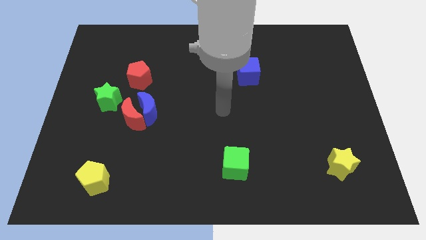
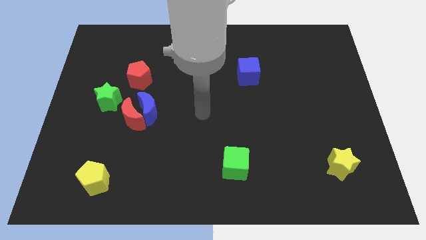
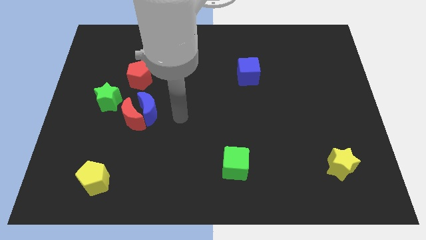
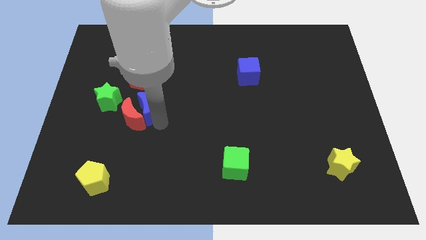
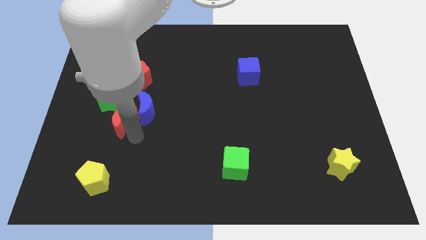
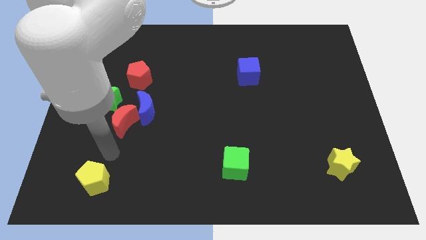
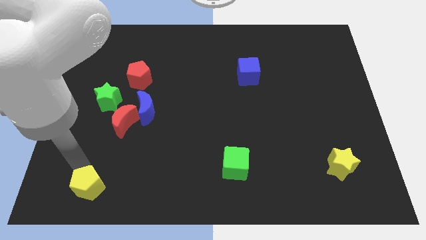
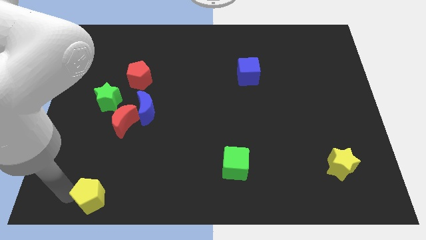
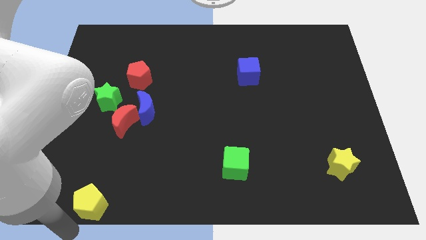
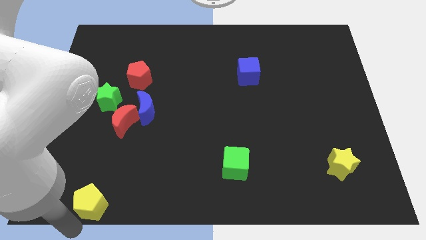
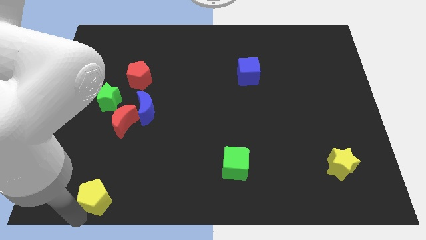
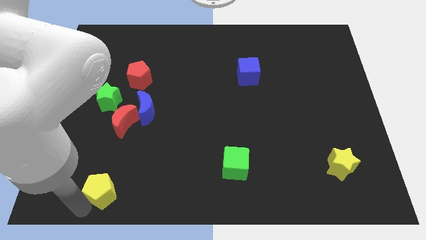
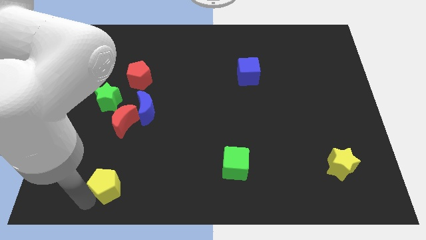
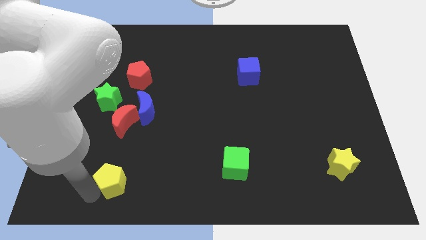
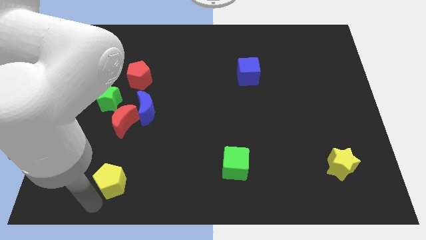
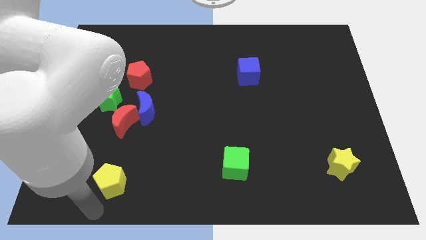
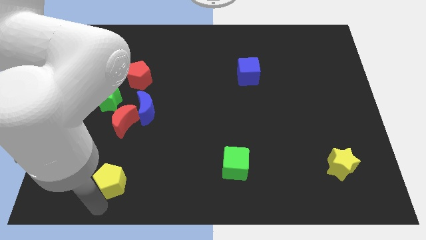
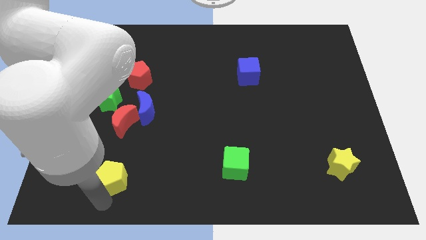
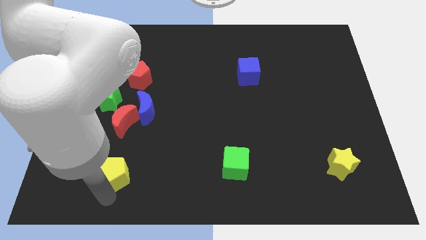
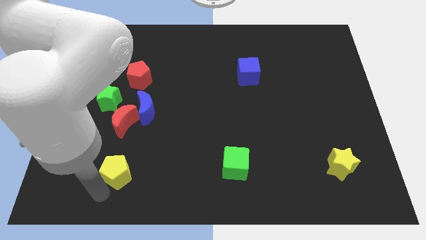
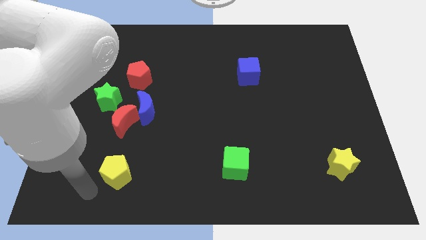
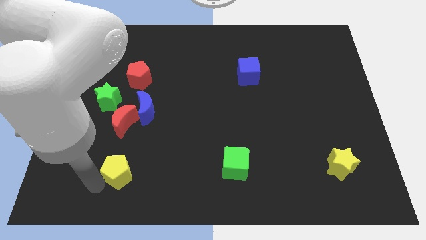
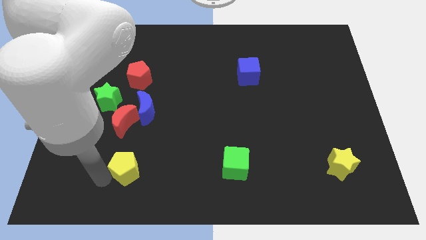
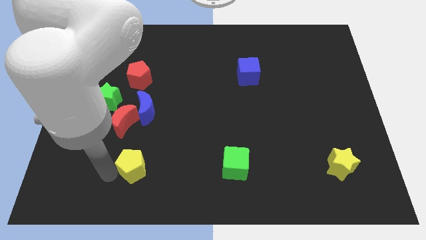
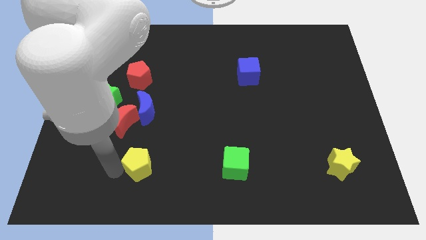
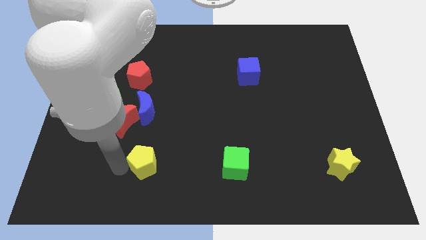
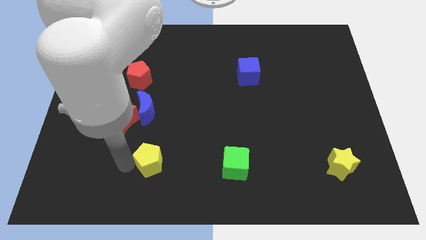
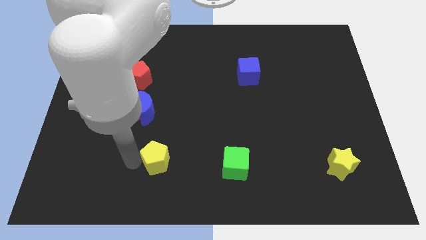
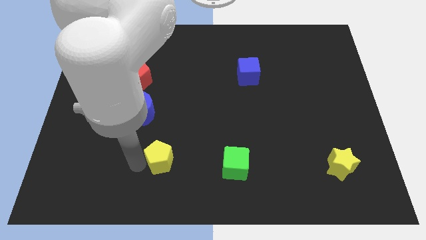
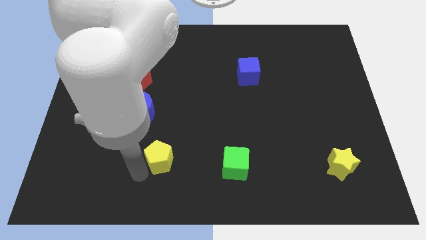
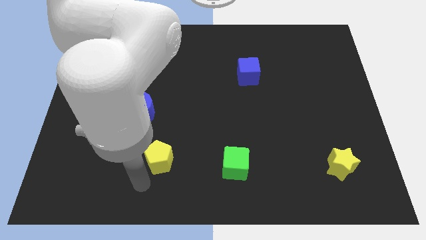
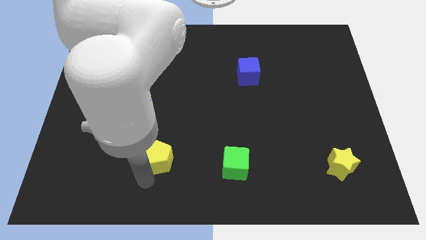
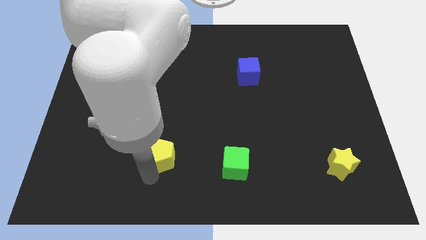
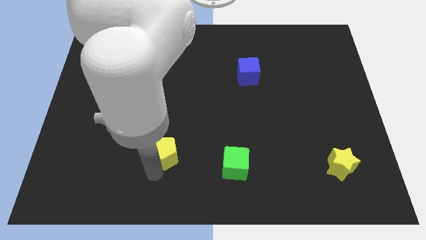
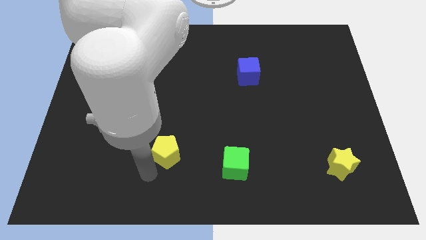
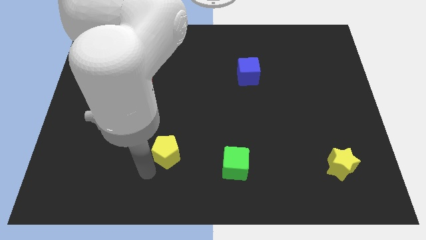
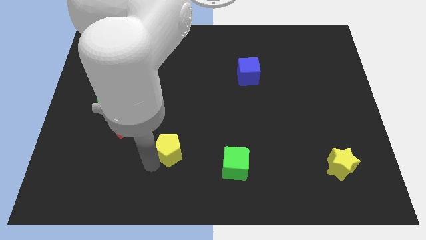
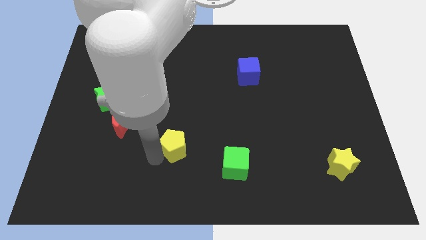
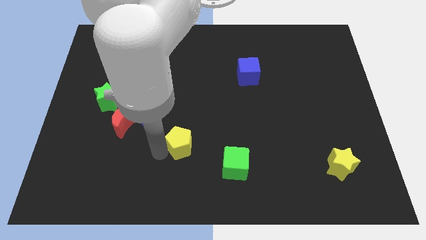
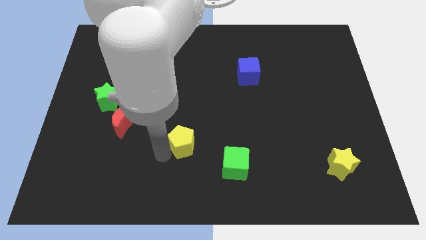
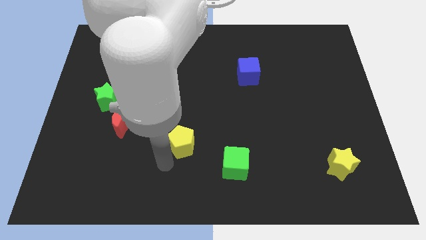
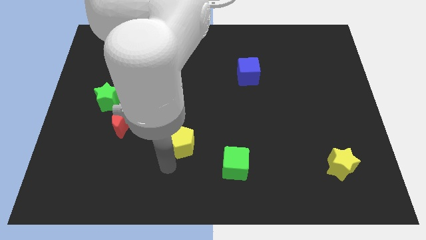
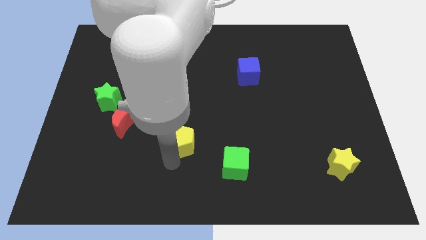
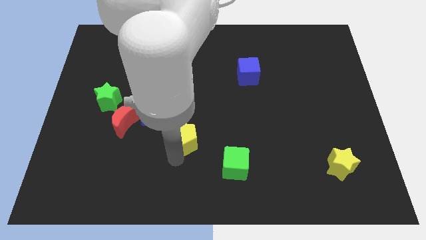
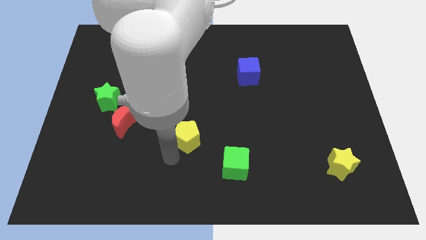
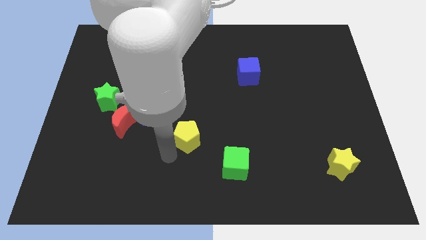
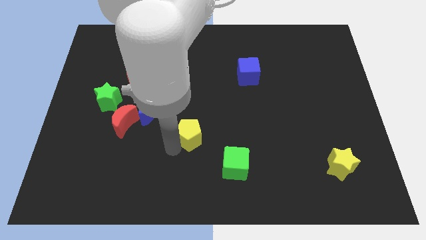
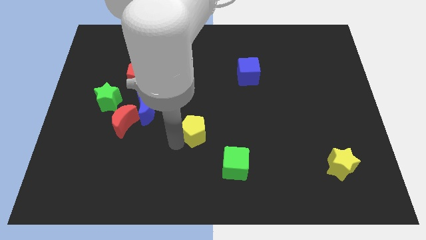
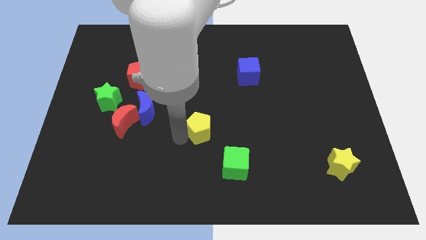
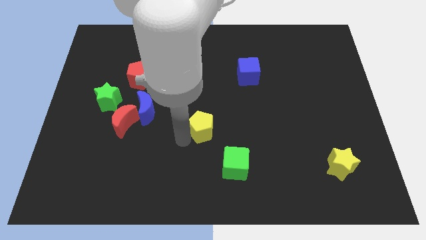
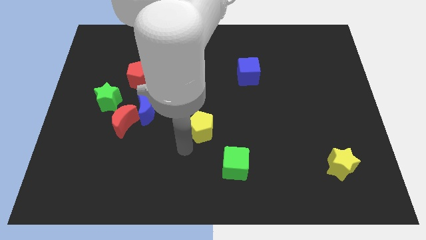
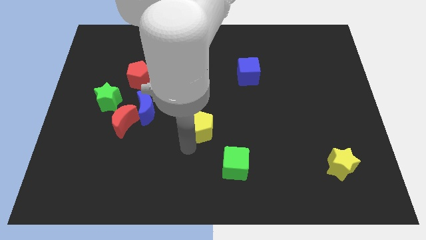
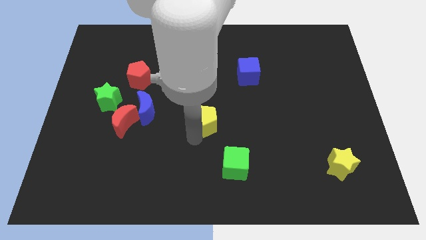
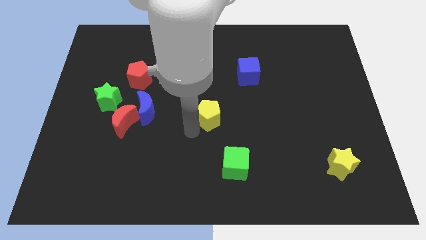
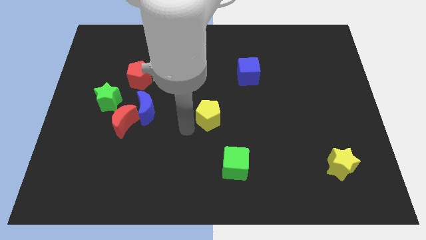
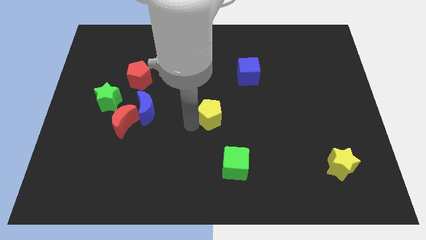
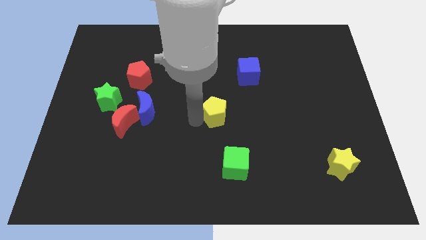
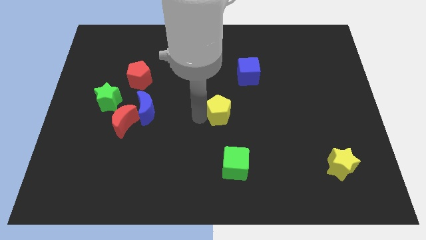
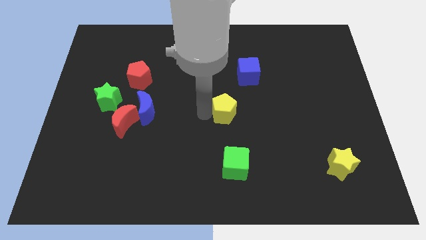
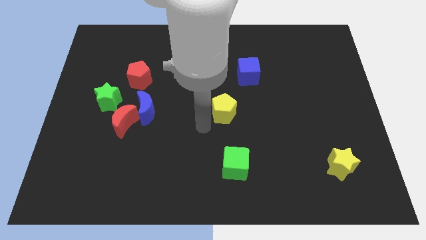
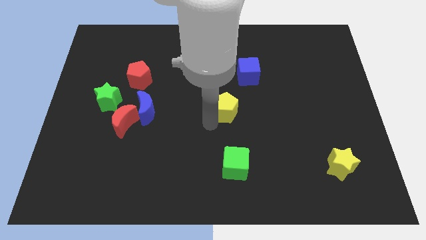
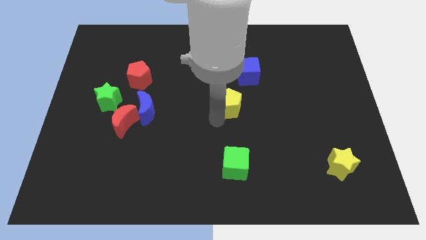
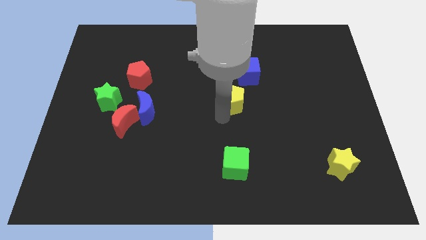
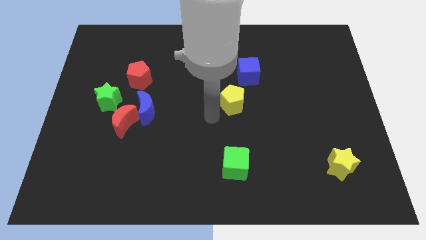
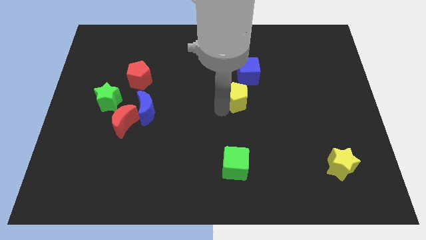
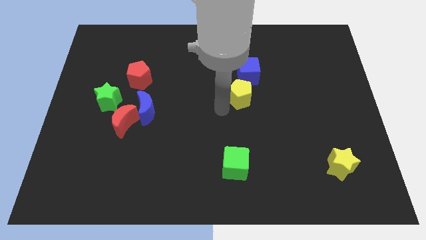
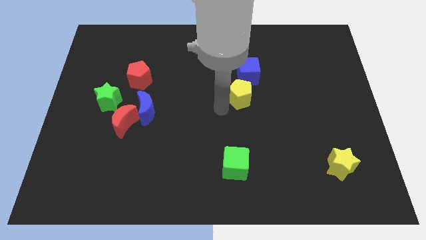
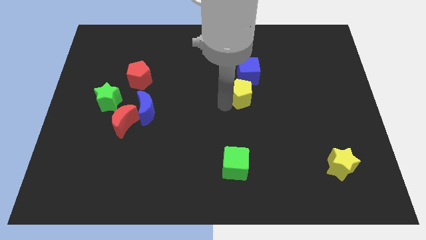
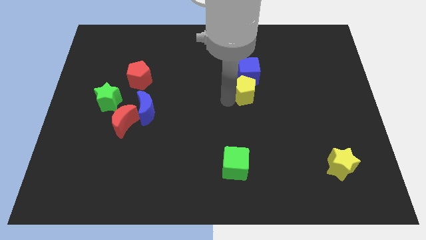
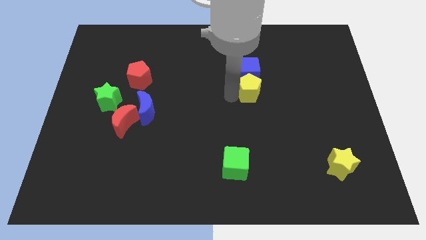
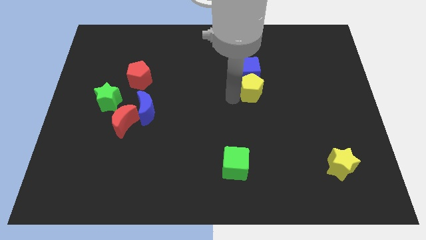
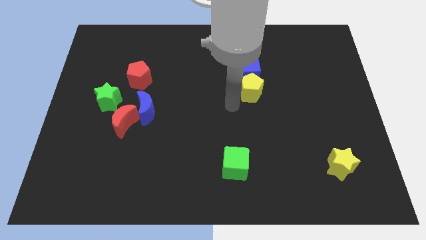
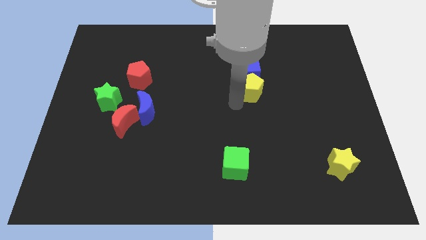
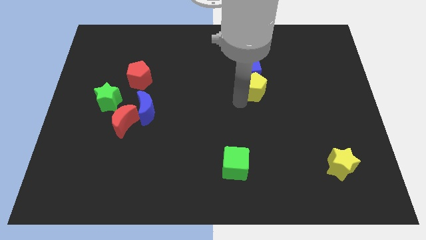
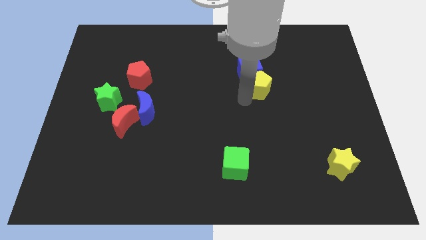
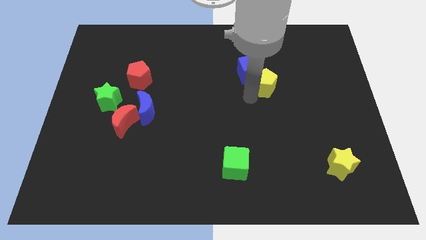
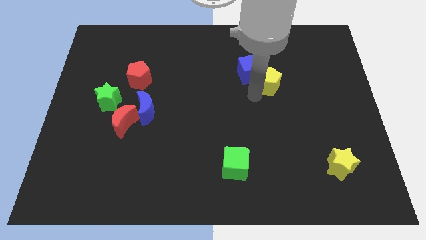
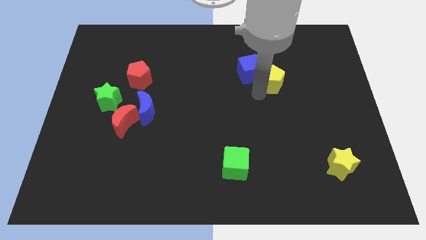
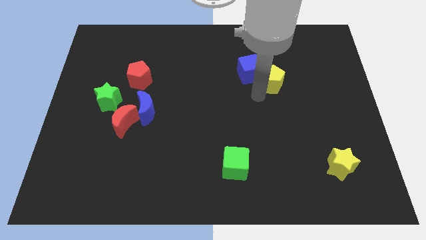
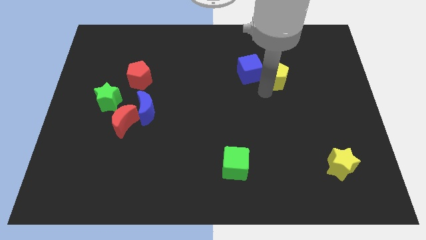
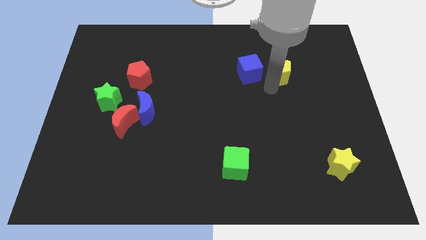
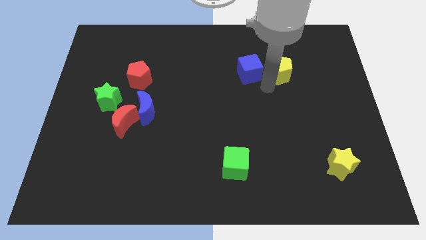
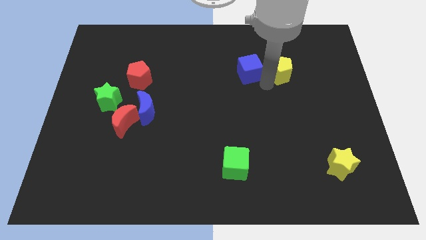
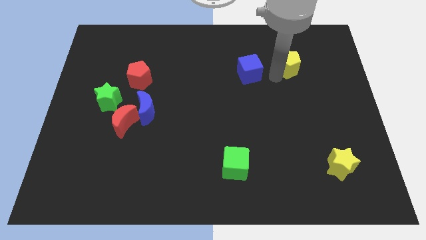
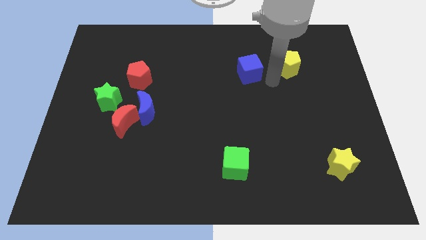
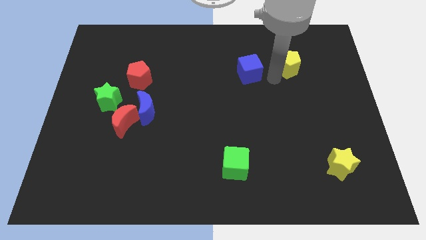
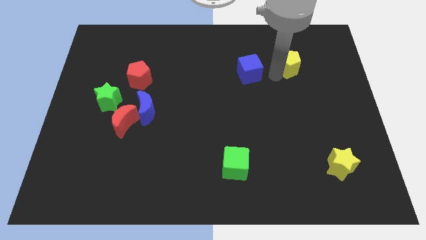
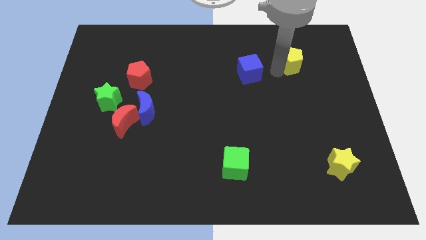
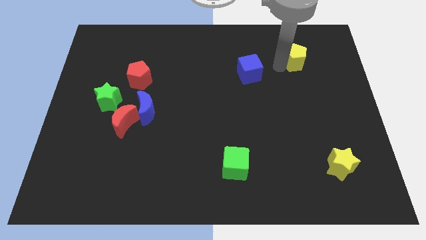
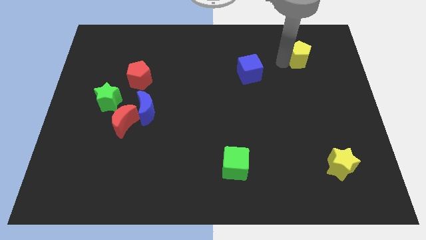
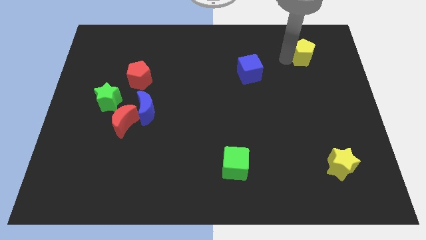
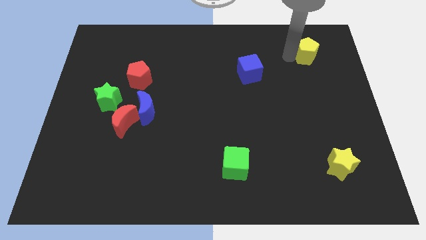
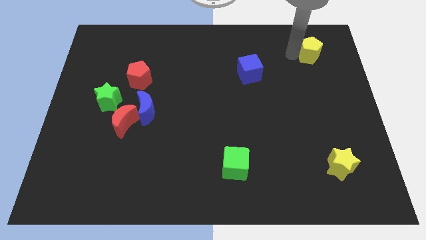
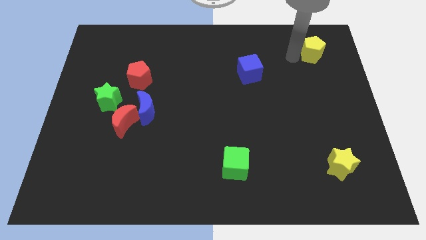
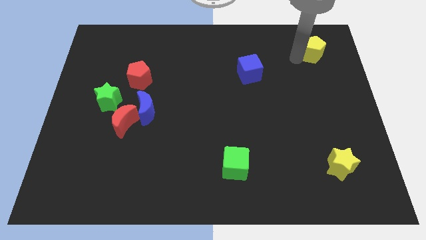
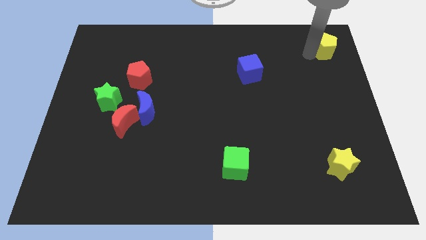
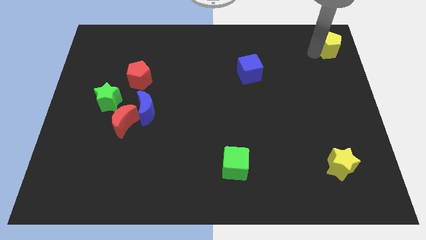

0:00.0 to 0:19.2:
move the yellow pentagon to the top right of the board
